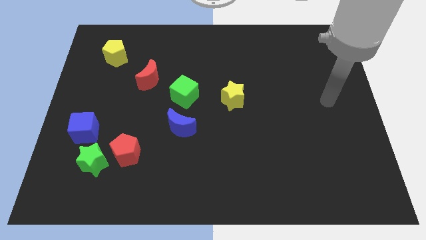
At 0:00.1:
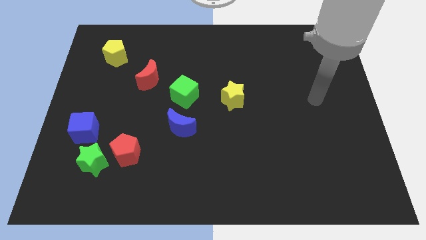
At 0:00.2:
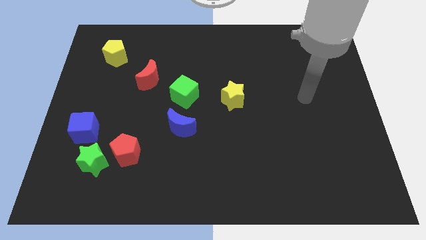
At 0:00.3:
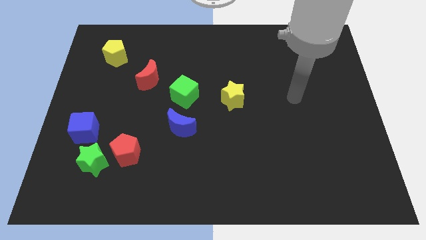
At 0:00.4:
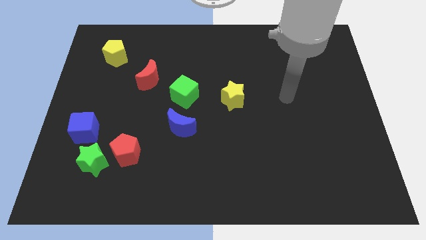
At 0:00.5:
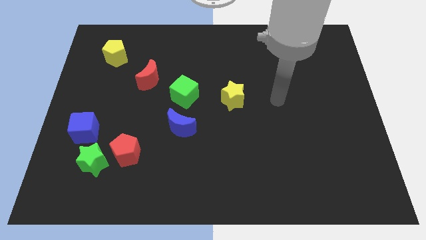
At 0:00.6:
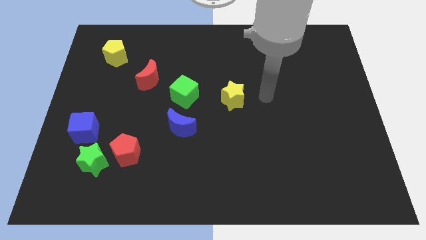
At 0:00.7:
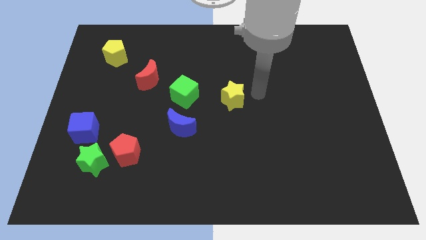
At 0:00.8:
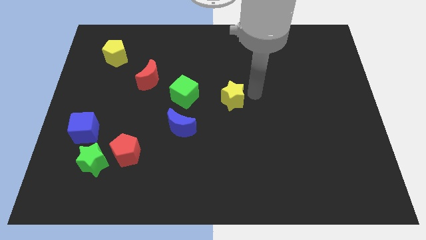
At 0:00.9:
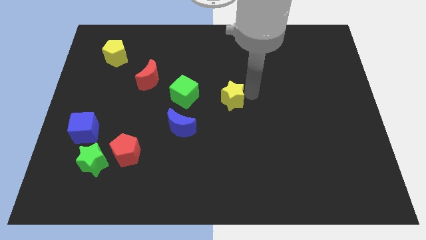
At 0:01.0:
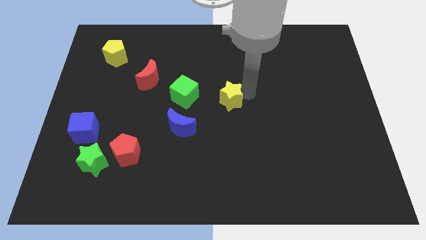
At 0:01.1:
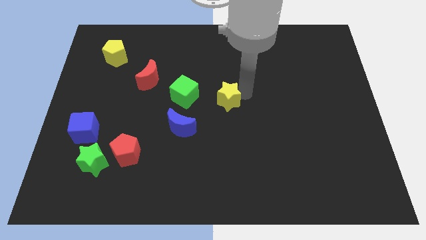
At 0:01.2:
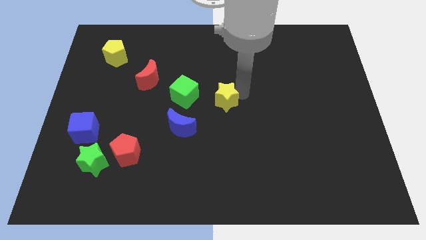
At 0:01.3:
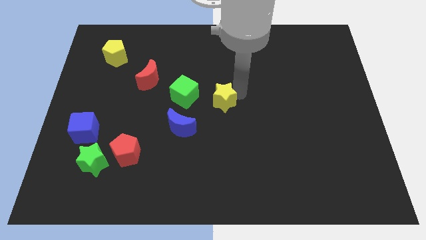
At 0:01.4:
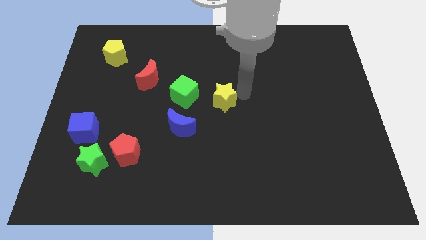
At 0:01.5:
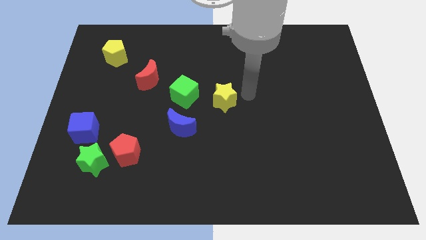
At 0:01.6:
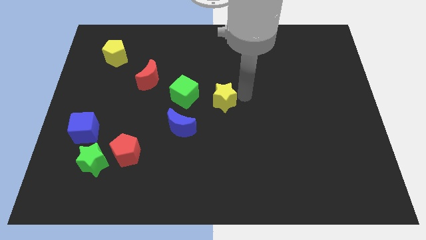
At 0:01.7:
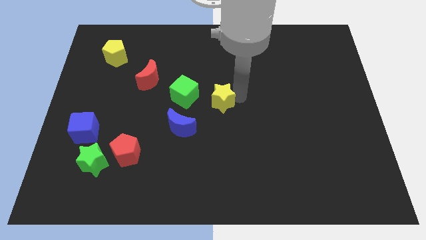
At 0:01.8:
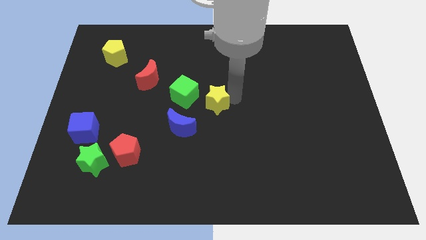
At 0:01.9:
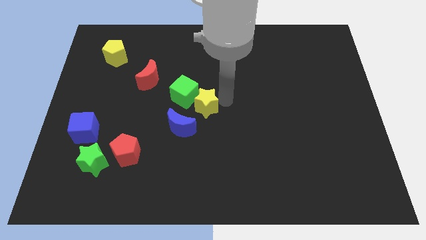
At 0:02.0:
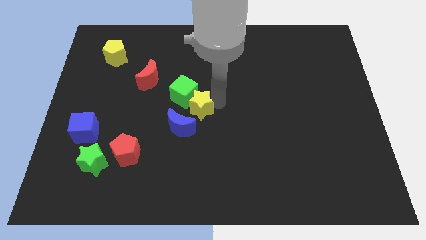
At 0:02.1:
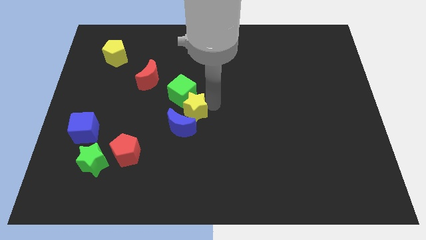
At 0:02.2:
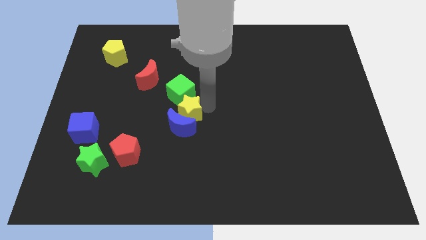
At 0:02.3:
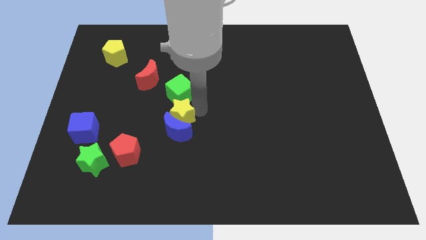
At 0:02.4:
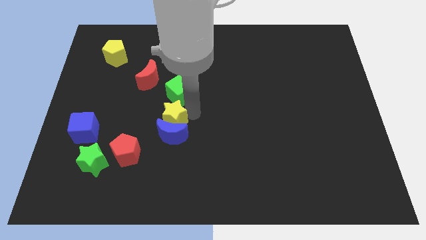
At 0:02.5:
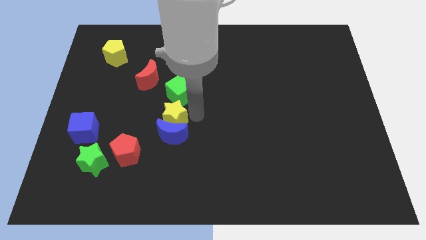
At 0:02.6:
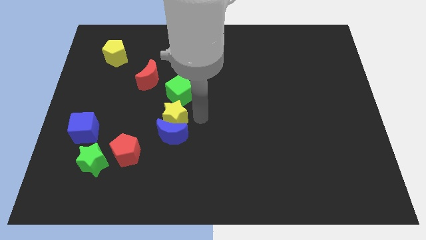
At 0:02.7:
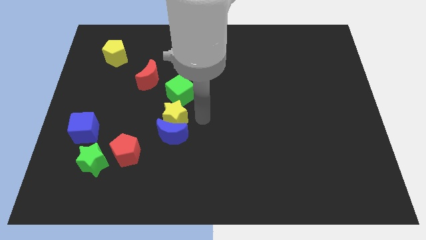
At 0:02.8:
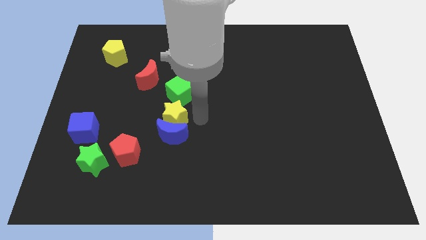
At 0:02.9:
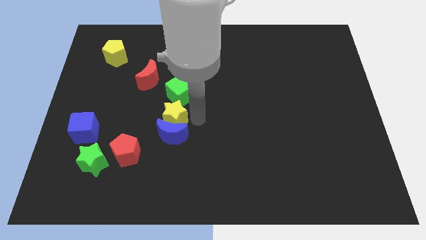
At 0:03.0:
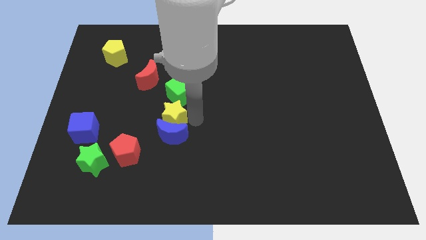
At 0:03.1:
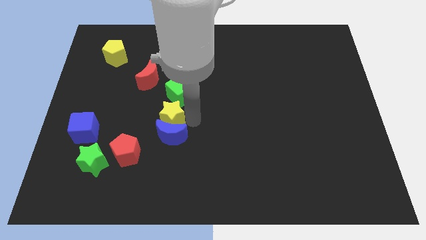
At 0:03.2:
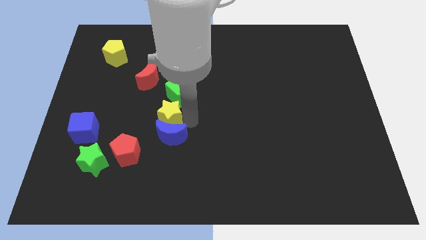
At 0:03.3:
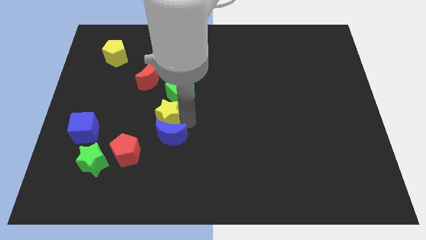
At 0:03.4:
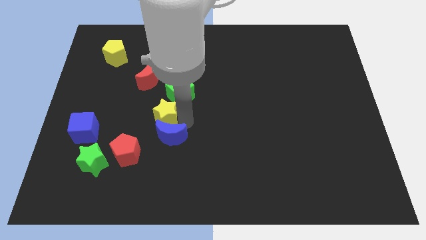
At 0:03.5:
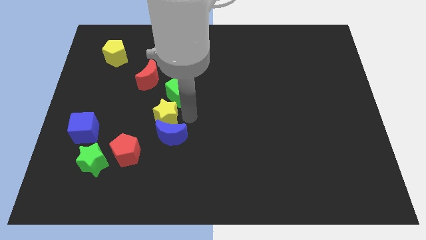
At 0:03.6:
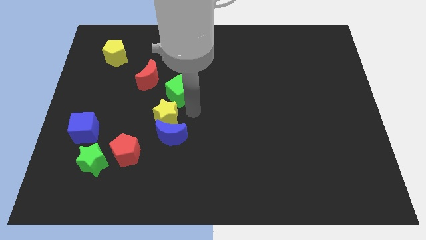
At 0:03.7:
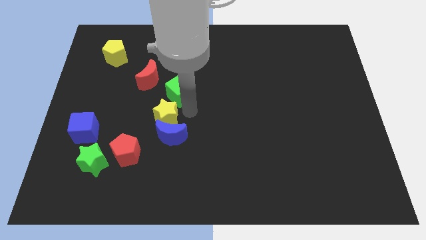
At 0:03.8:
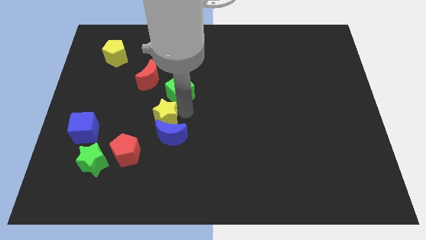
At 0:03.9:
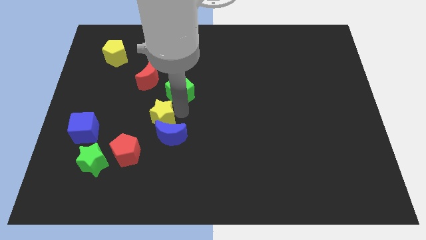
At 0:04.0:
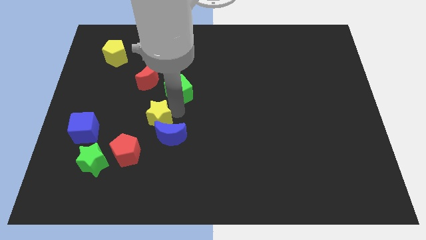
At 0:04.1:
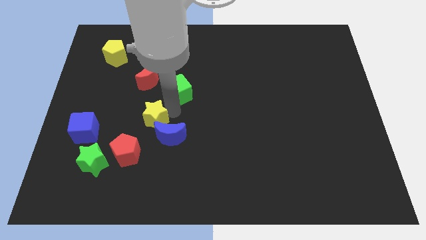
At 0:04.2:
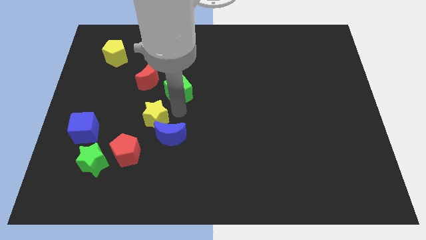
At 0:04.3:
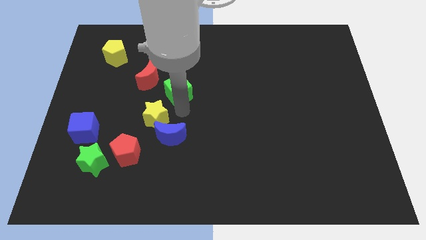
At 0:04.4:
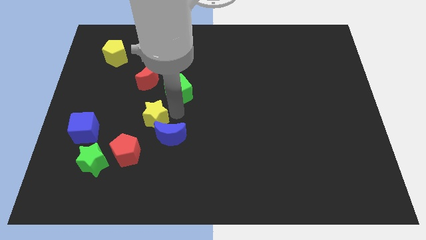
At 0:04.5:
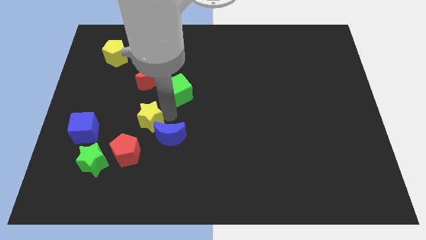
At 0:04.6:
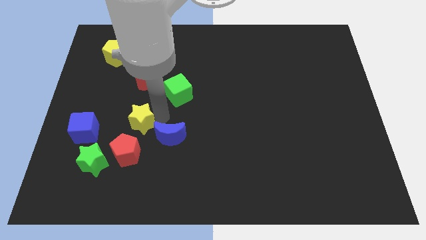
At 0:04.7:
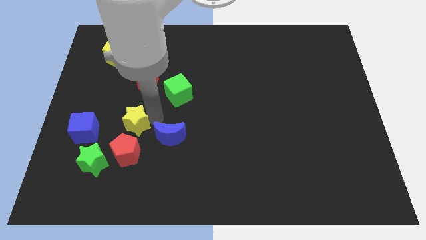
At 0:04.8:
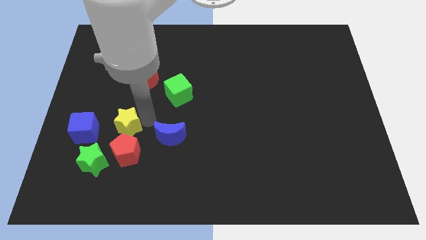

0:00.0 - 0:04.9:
push the yellow star to the top left of the red pentagon

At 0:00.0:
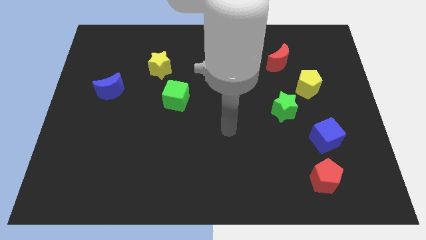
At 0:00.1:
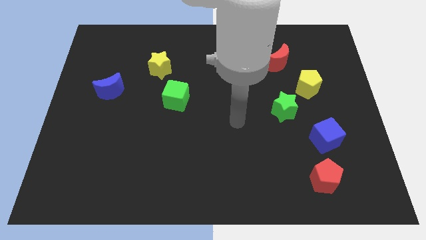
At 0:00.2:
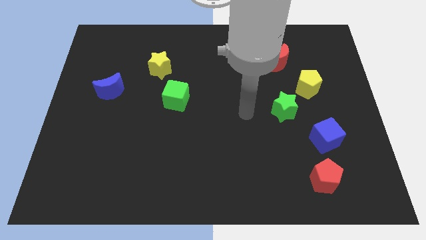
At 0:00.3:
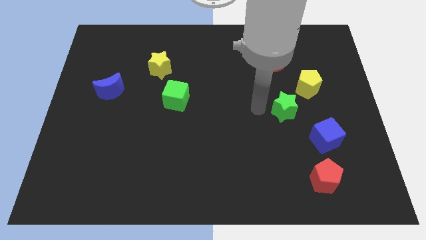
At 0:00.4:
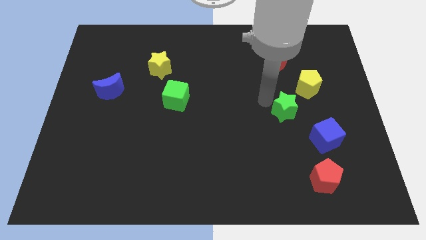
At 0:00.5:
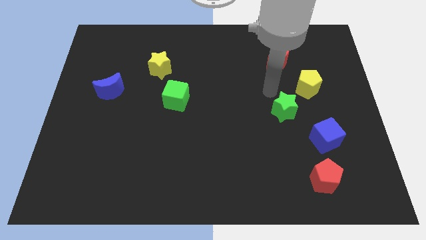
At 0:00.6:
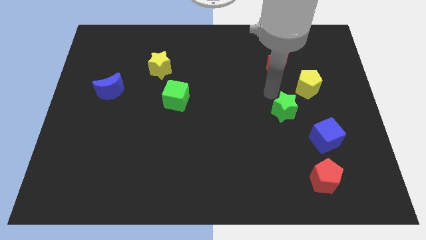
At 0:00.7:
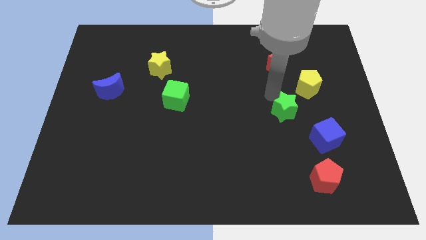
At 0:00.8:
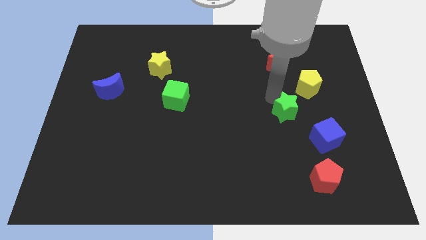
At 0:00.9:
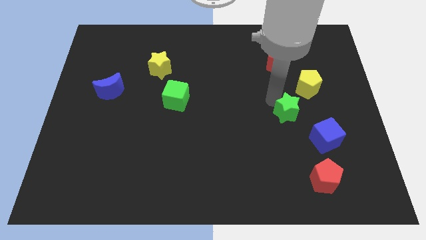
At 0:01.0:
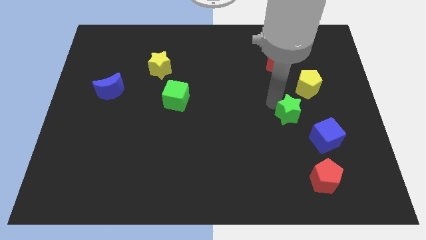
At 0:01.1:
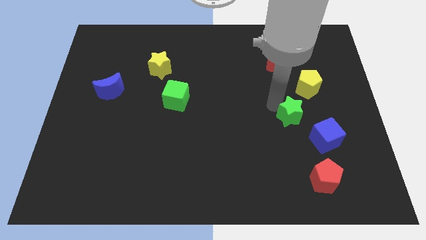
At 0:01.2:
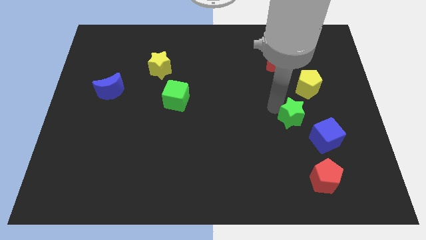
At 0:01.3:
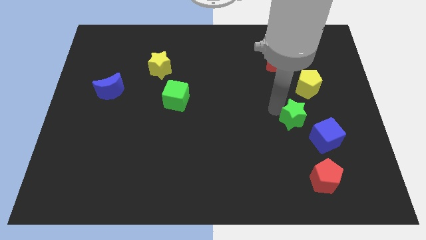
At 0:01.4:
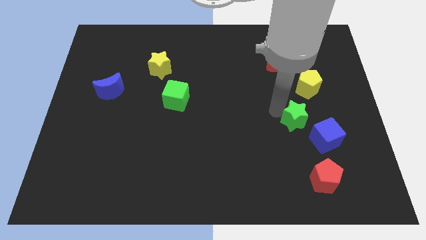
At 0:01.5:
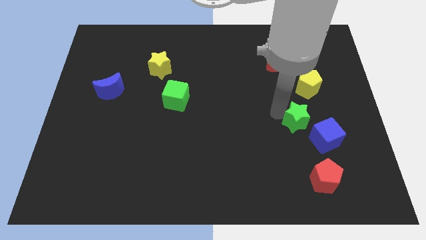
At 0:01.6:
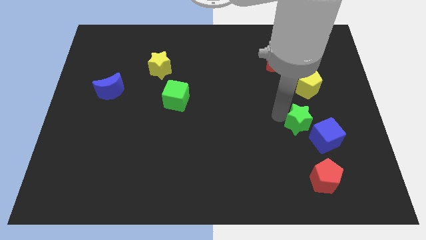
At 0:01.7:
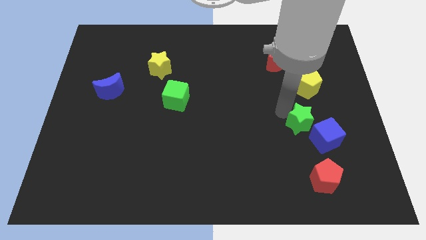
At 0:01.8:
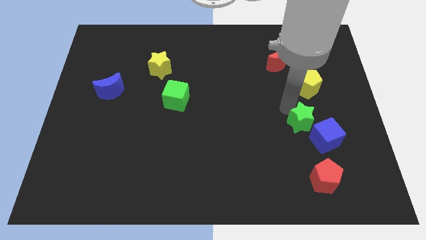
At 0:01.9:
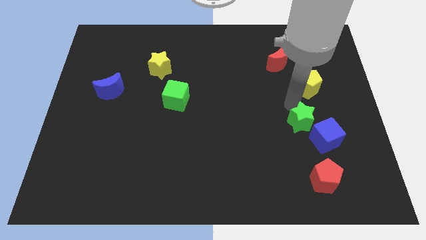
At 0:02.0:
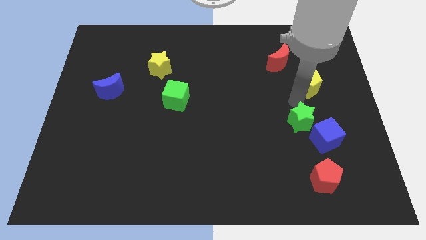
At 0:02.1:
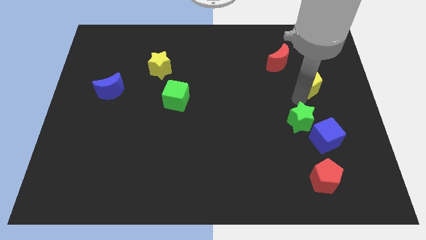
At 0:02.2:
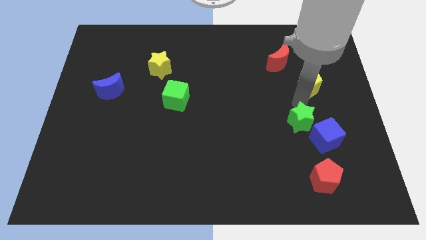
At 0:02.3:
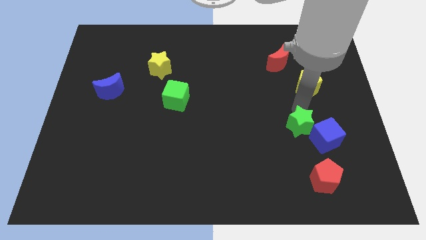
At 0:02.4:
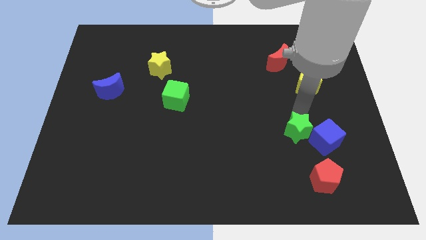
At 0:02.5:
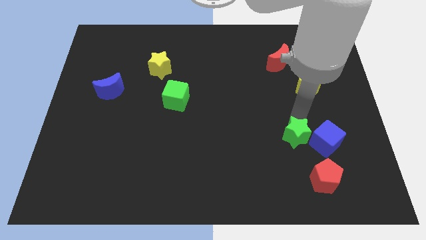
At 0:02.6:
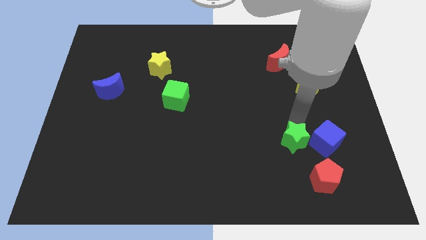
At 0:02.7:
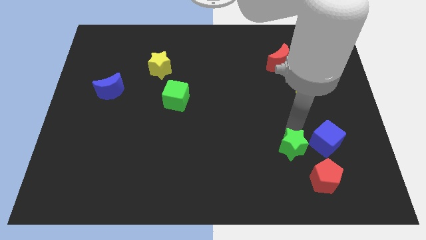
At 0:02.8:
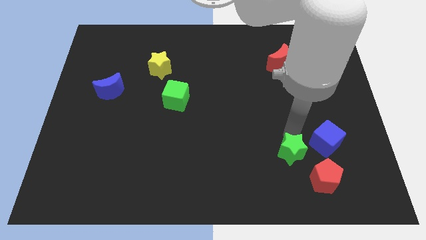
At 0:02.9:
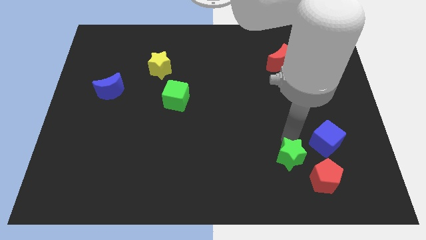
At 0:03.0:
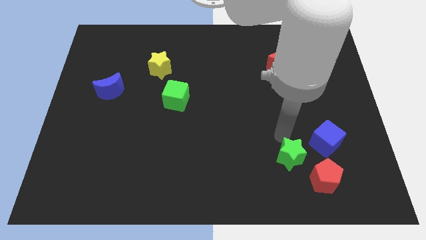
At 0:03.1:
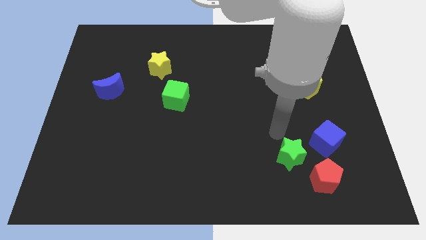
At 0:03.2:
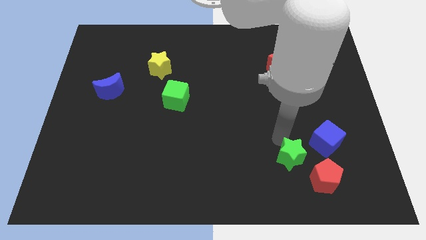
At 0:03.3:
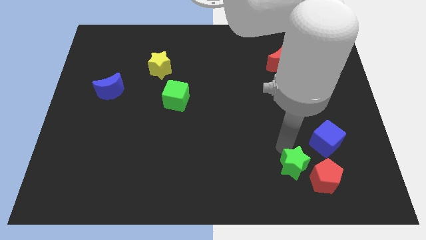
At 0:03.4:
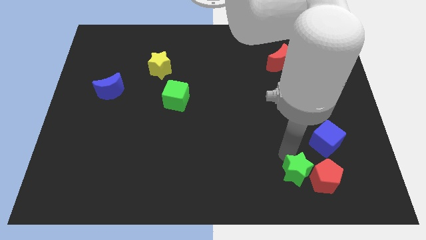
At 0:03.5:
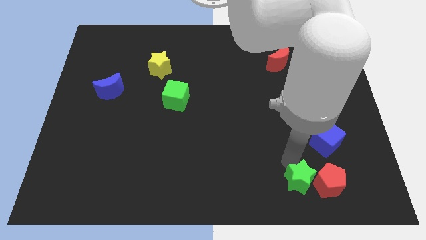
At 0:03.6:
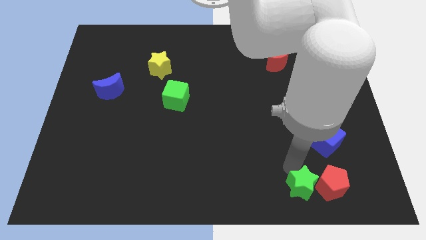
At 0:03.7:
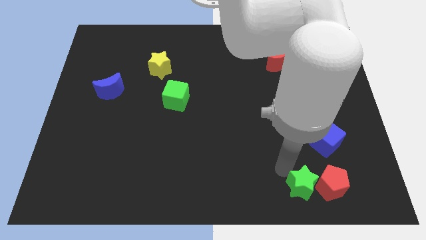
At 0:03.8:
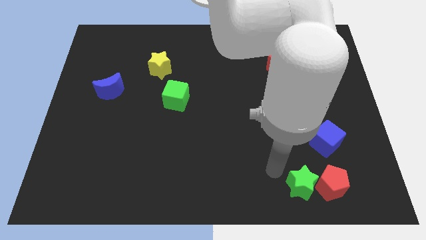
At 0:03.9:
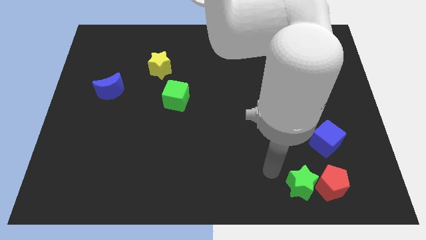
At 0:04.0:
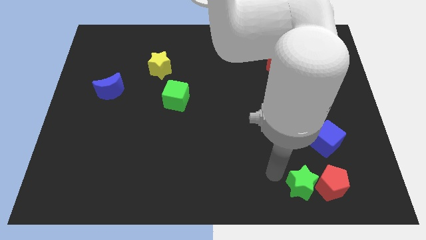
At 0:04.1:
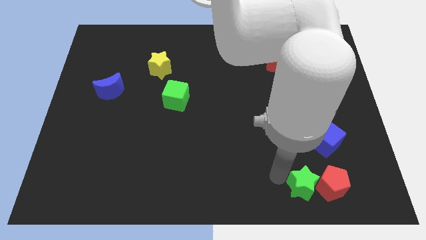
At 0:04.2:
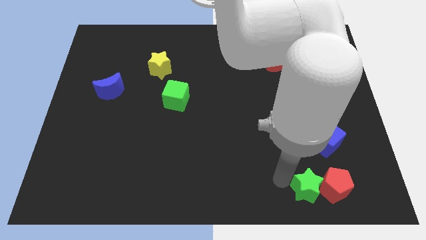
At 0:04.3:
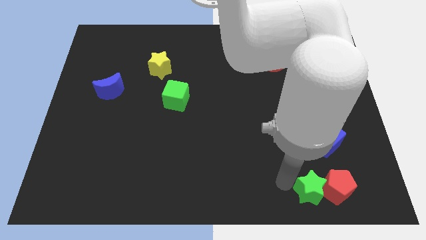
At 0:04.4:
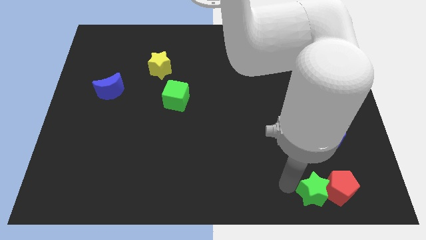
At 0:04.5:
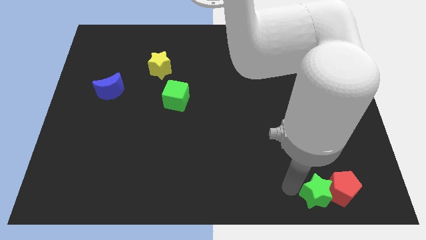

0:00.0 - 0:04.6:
push the green star to the bottom of the blue cube
